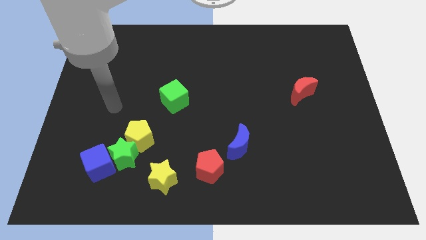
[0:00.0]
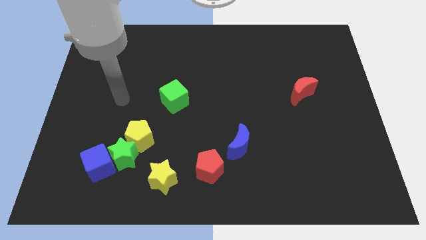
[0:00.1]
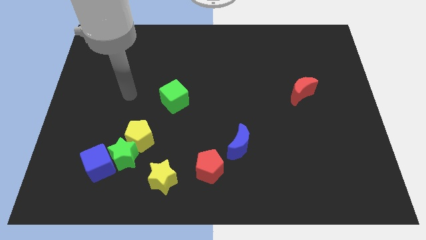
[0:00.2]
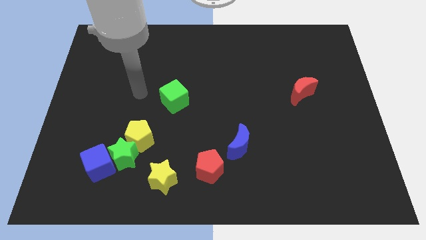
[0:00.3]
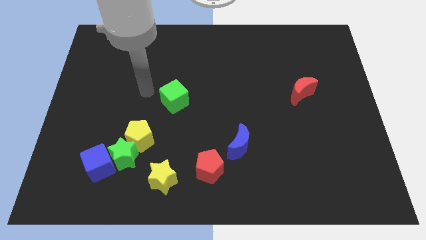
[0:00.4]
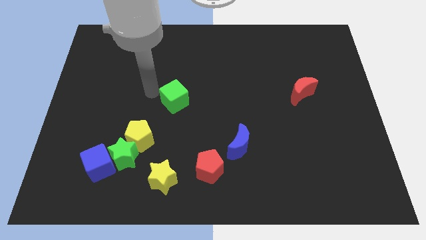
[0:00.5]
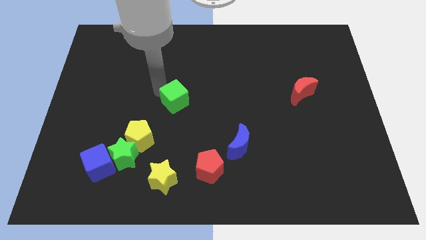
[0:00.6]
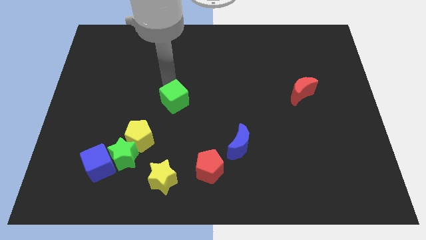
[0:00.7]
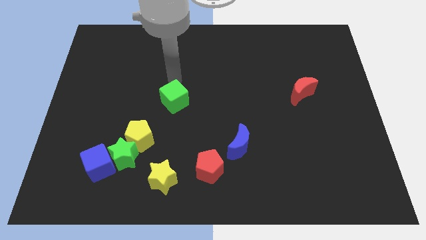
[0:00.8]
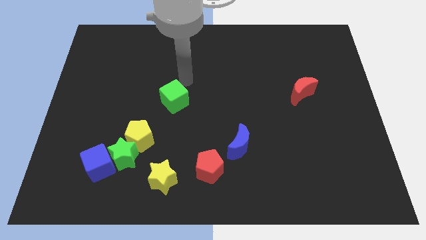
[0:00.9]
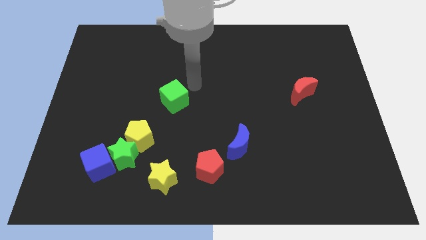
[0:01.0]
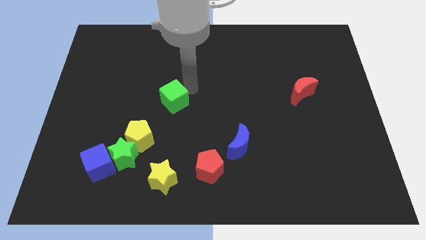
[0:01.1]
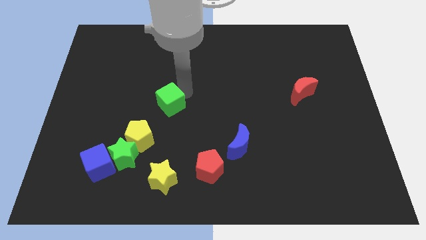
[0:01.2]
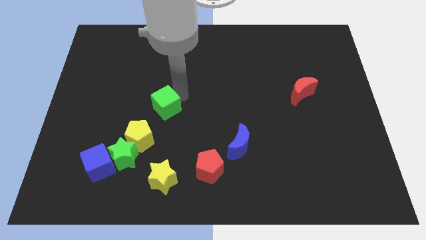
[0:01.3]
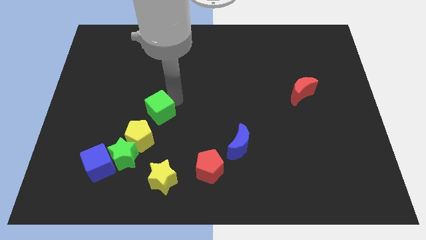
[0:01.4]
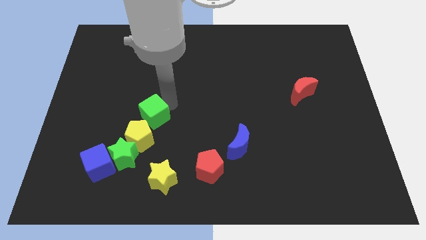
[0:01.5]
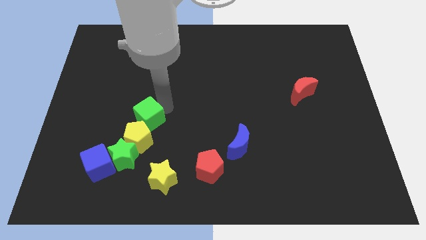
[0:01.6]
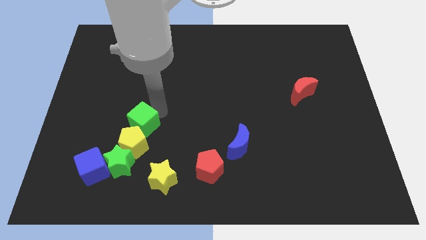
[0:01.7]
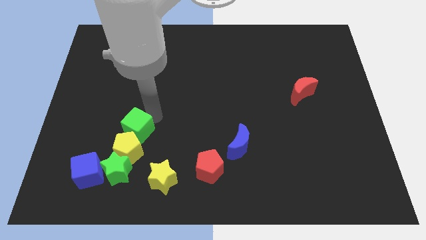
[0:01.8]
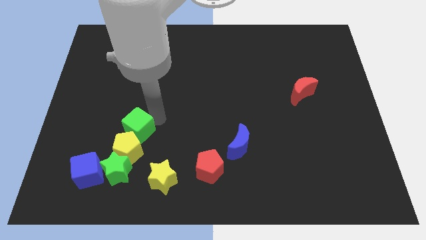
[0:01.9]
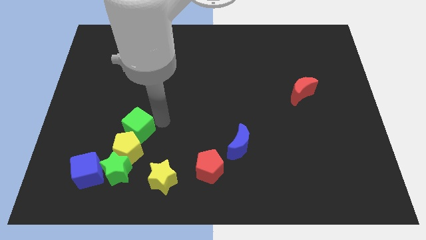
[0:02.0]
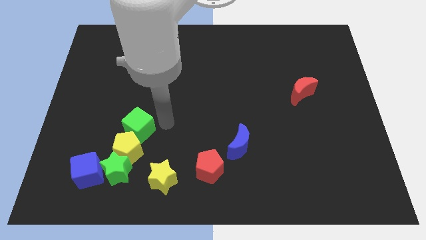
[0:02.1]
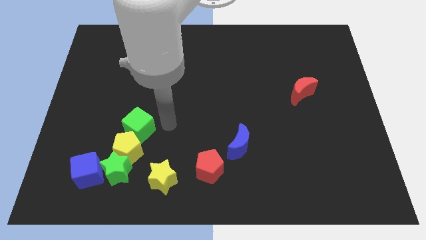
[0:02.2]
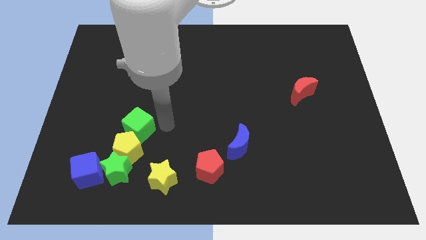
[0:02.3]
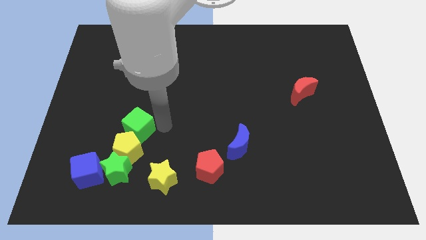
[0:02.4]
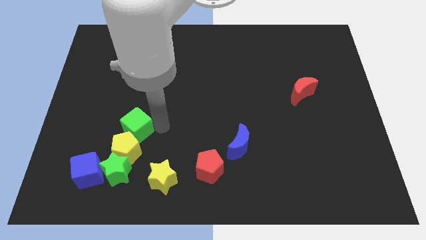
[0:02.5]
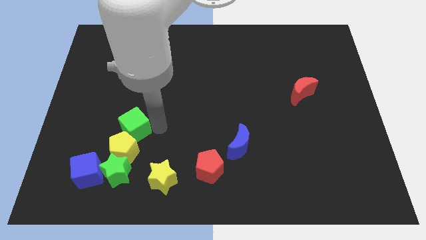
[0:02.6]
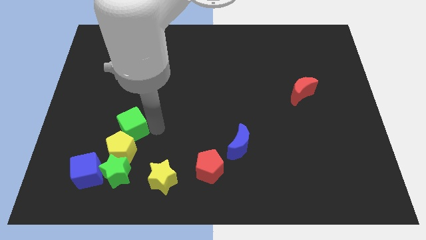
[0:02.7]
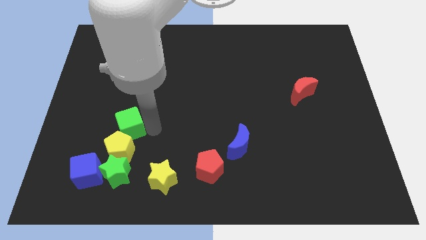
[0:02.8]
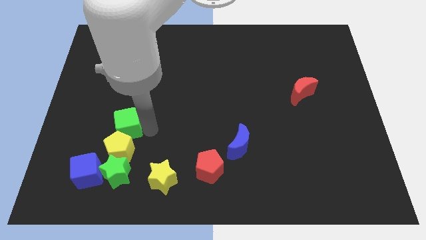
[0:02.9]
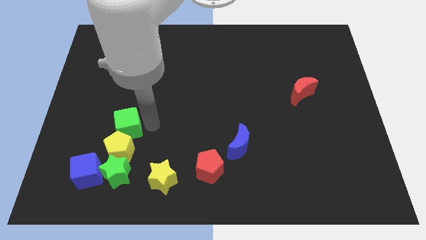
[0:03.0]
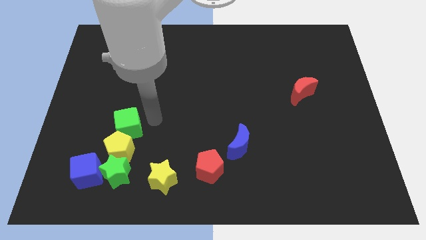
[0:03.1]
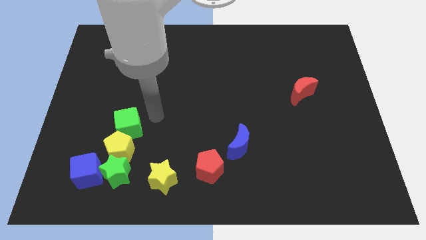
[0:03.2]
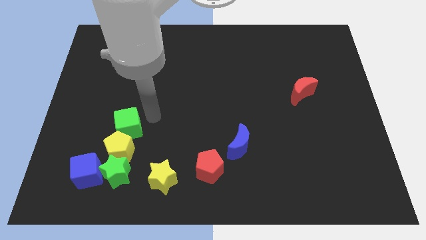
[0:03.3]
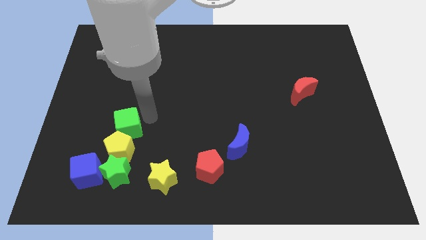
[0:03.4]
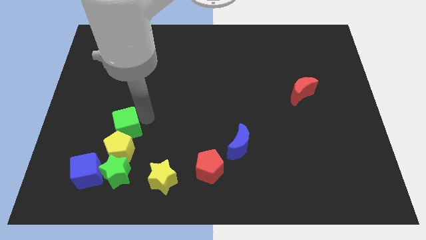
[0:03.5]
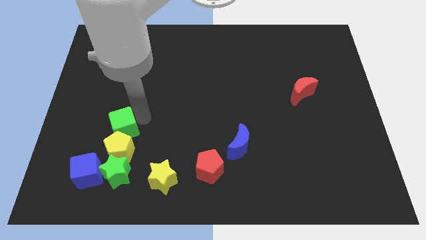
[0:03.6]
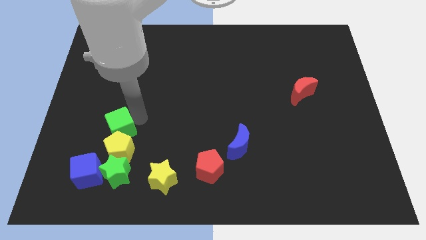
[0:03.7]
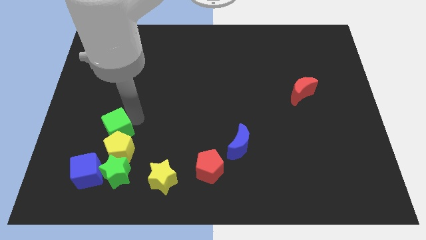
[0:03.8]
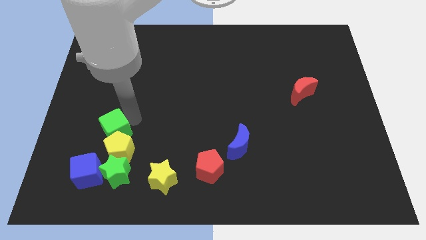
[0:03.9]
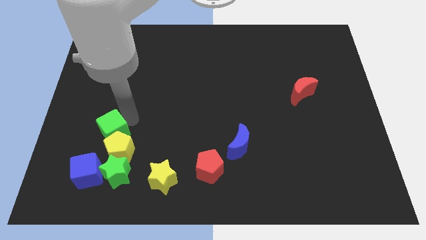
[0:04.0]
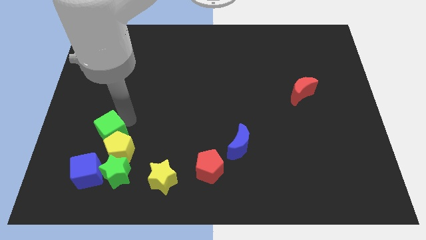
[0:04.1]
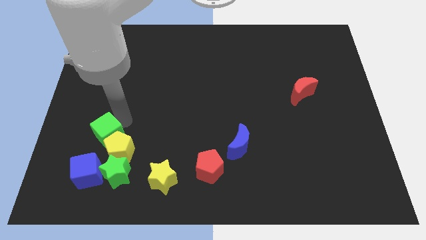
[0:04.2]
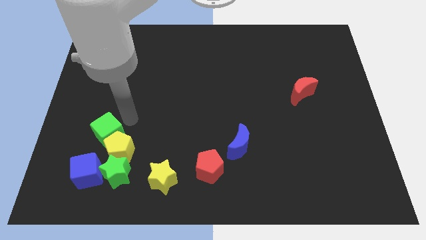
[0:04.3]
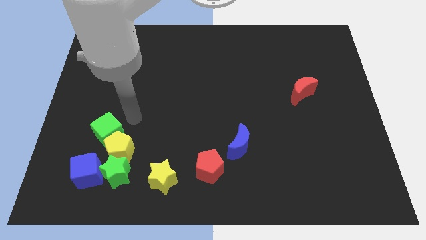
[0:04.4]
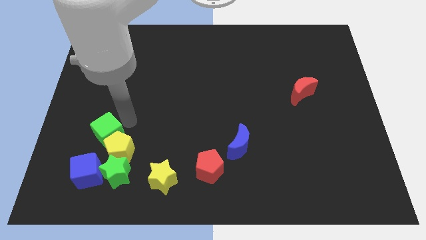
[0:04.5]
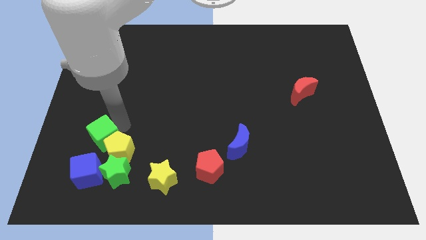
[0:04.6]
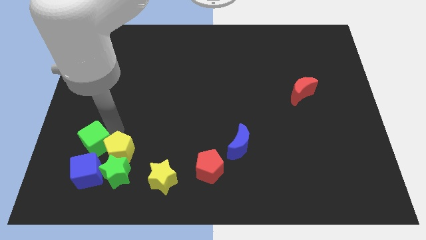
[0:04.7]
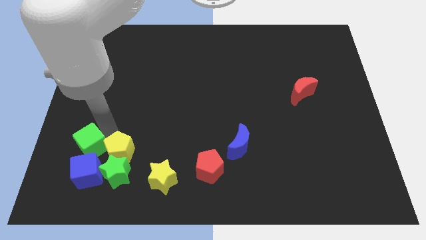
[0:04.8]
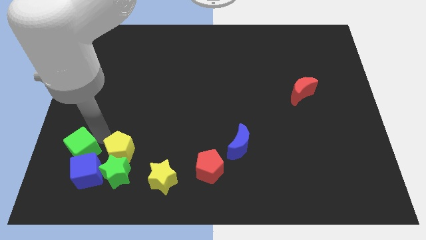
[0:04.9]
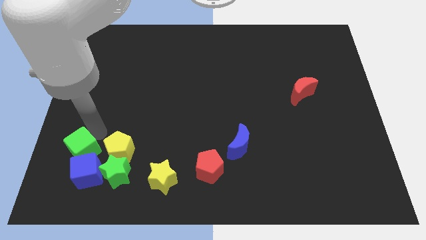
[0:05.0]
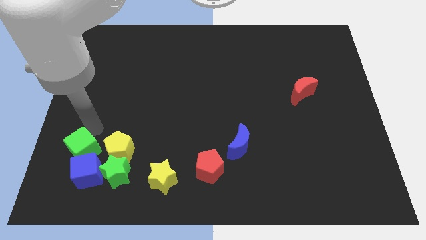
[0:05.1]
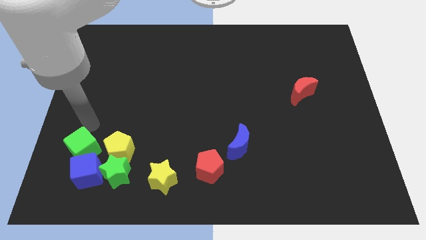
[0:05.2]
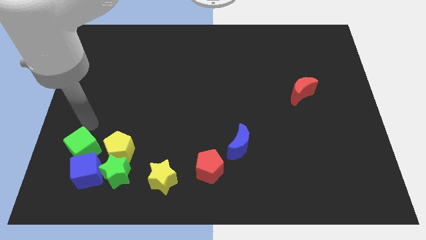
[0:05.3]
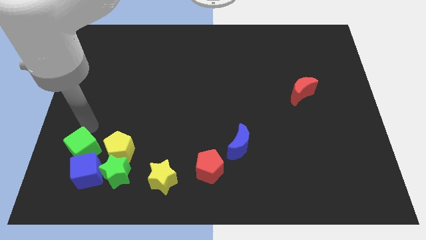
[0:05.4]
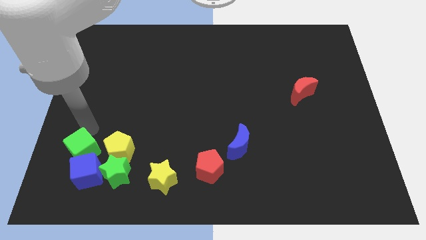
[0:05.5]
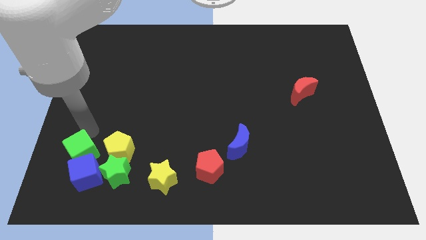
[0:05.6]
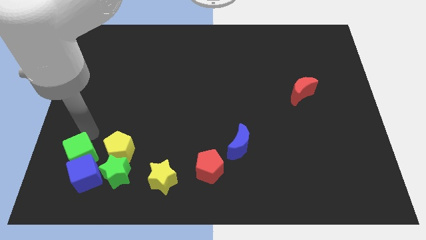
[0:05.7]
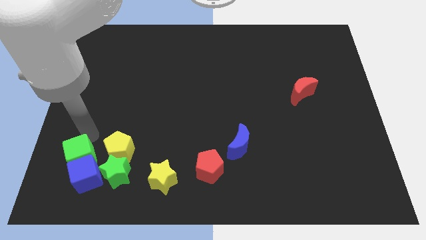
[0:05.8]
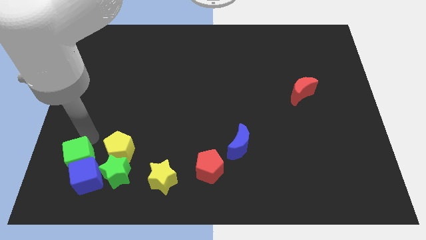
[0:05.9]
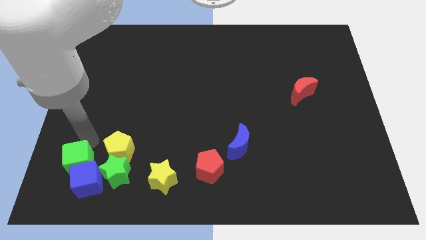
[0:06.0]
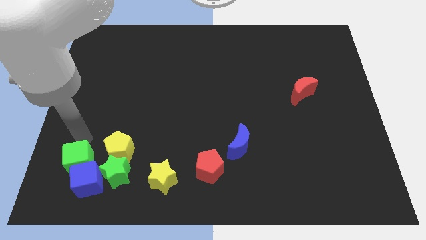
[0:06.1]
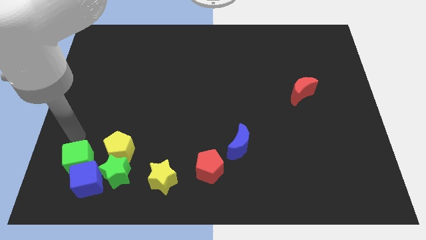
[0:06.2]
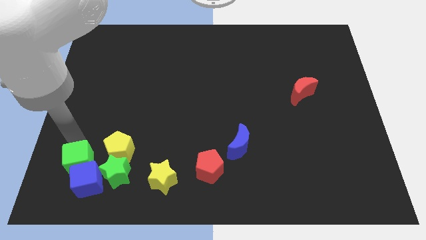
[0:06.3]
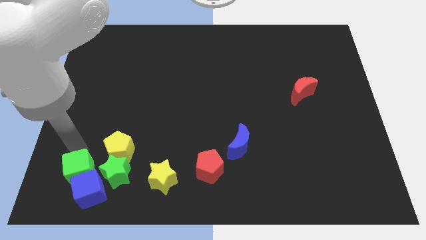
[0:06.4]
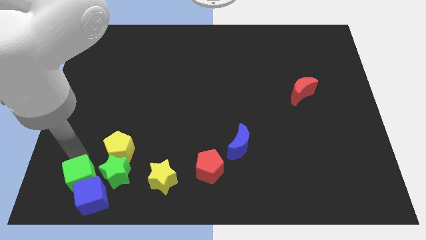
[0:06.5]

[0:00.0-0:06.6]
put the green cube diagonally down and to the left of the green star
